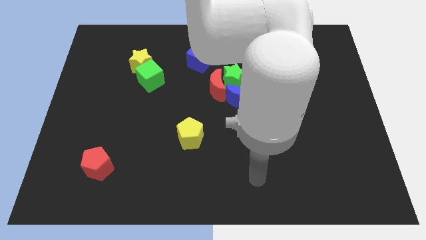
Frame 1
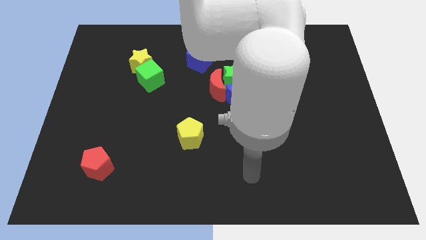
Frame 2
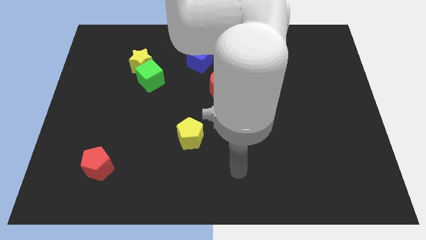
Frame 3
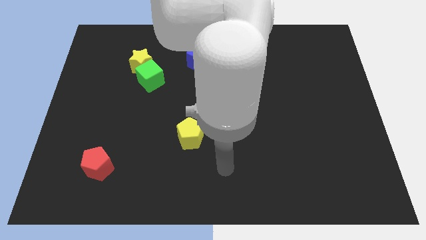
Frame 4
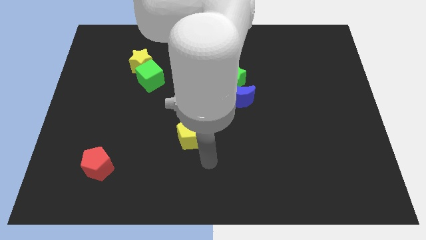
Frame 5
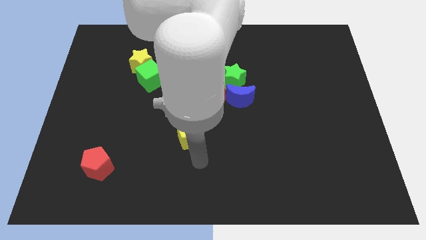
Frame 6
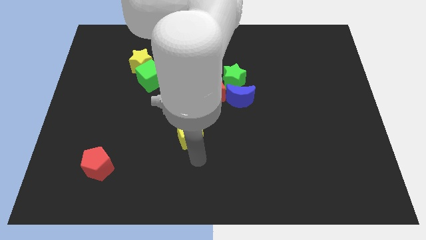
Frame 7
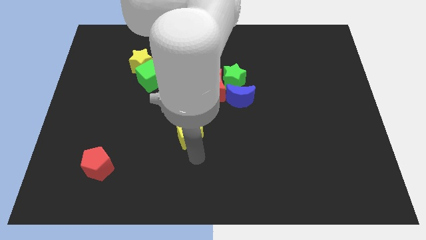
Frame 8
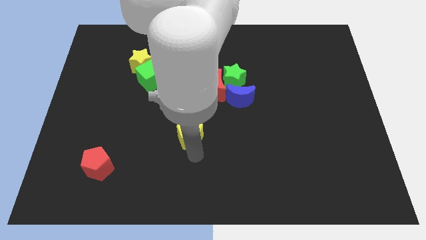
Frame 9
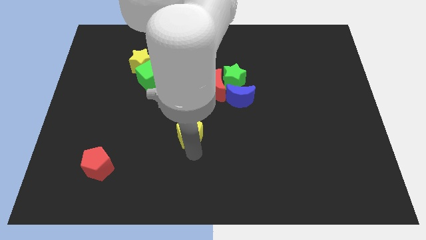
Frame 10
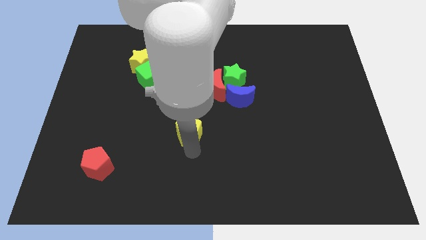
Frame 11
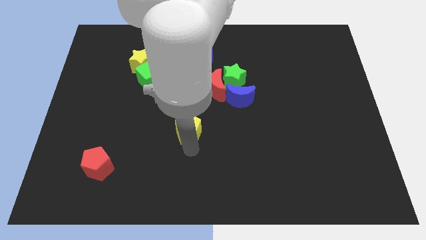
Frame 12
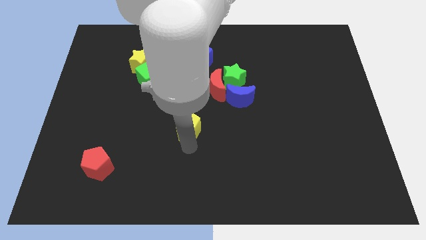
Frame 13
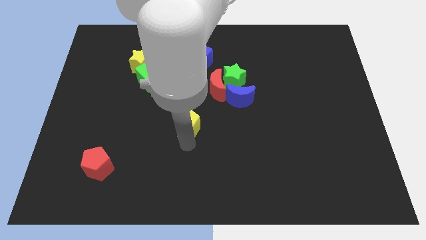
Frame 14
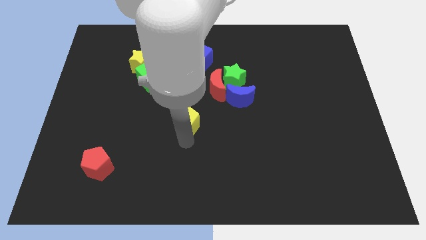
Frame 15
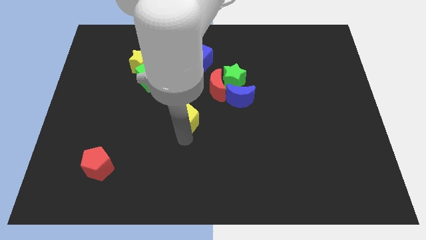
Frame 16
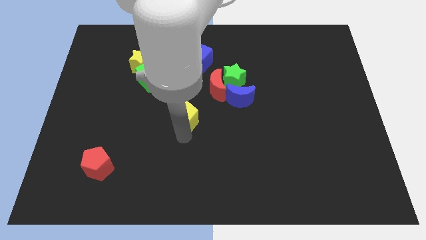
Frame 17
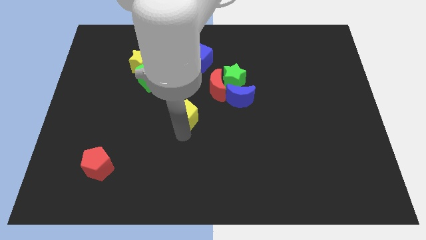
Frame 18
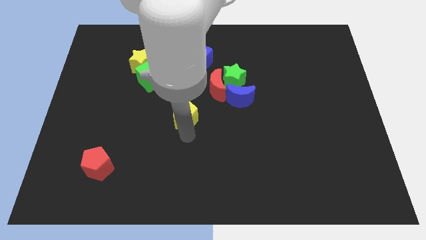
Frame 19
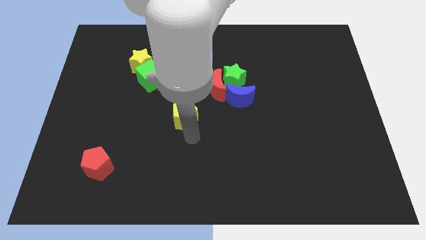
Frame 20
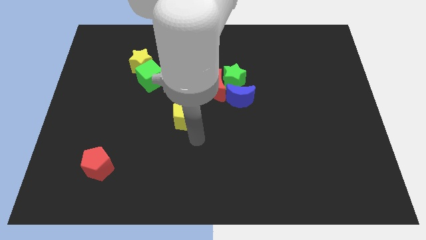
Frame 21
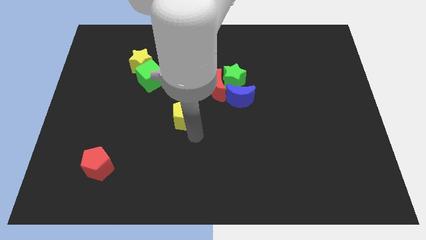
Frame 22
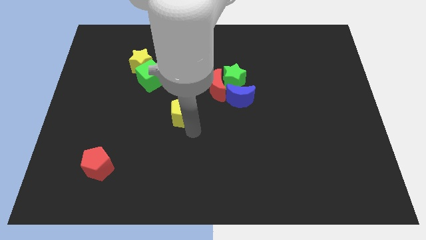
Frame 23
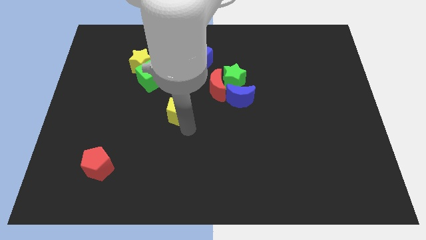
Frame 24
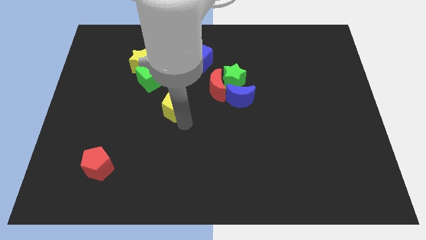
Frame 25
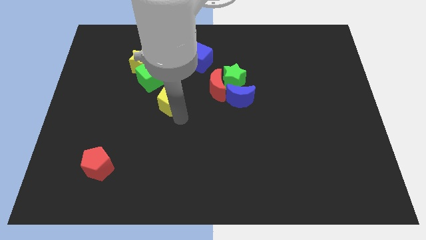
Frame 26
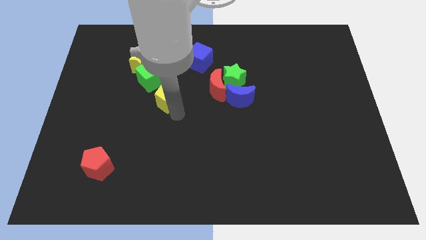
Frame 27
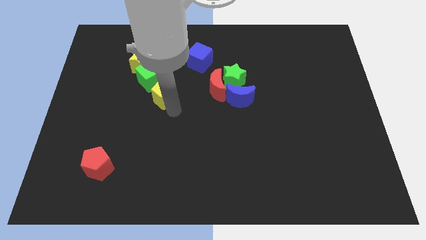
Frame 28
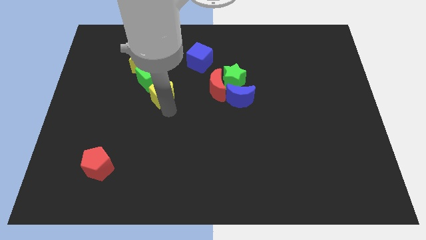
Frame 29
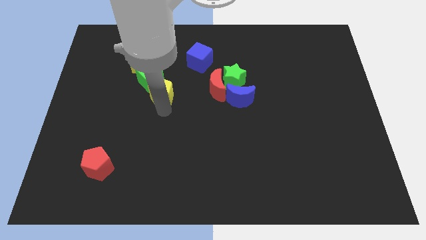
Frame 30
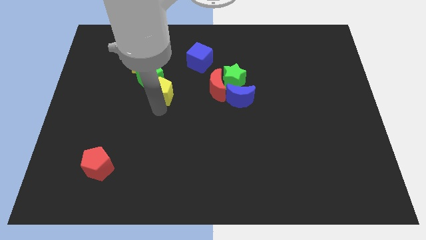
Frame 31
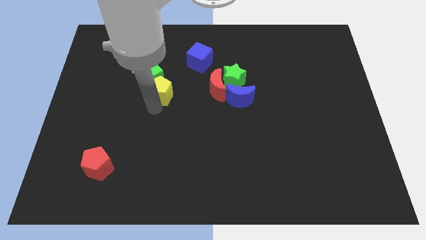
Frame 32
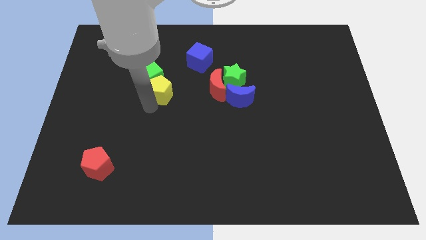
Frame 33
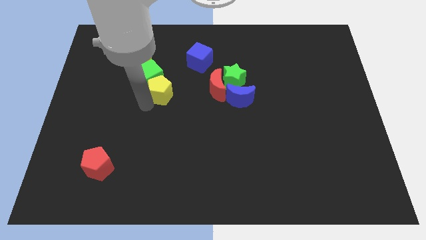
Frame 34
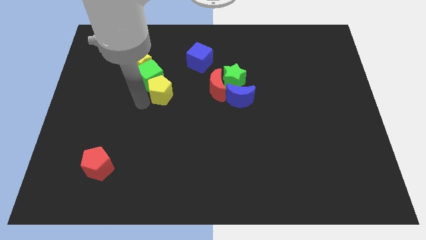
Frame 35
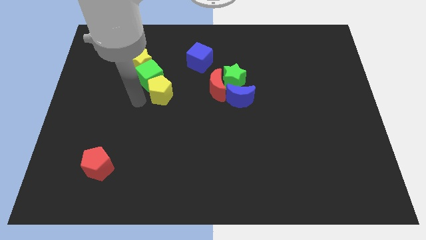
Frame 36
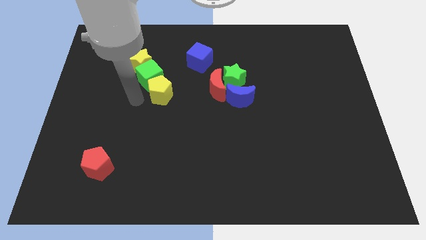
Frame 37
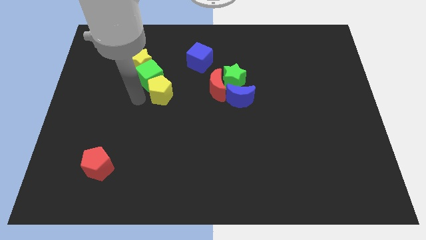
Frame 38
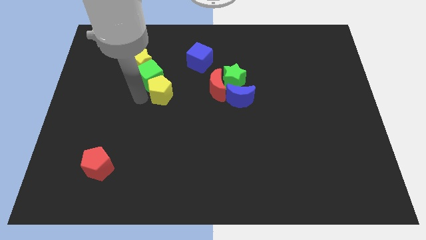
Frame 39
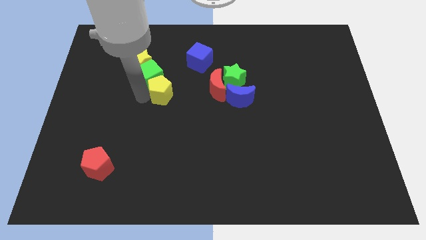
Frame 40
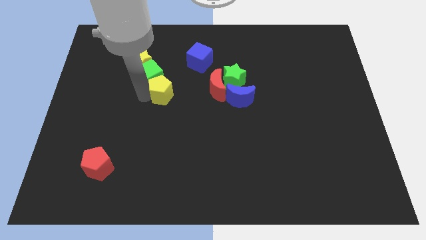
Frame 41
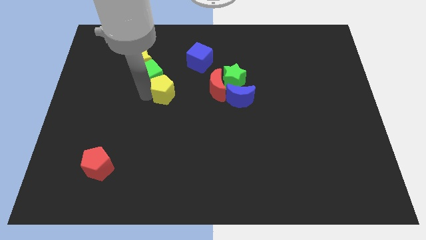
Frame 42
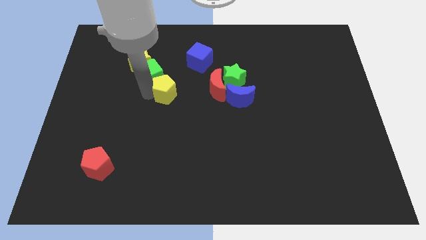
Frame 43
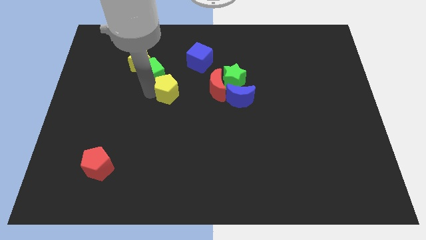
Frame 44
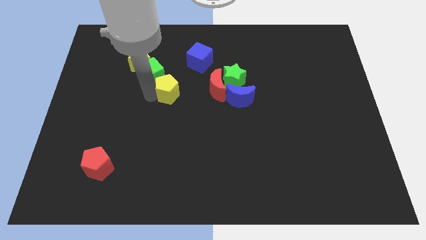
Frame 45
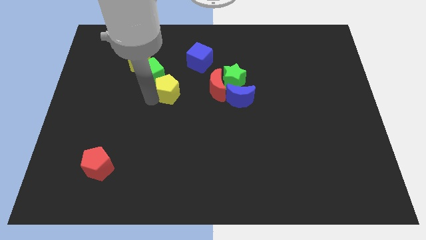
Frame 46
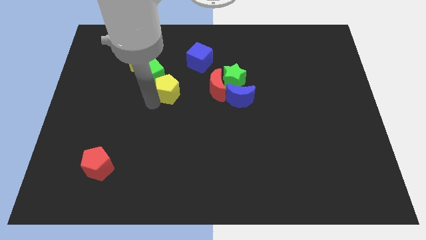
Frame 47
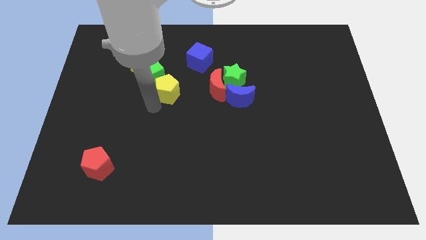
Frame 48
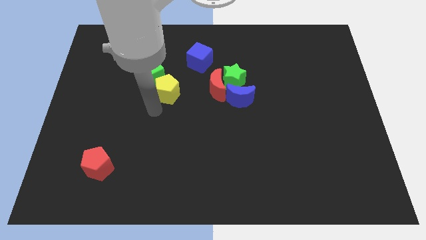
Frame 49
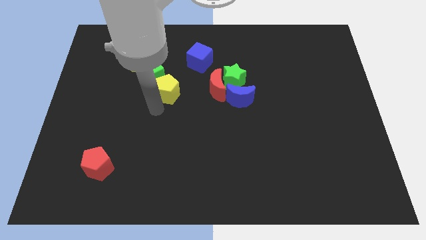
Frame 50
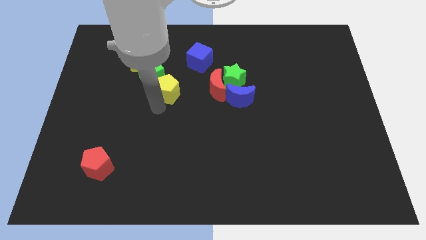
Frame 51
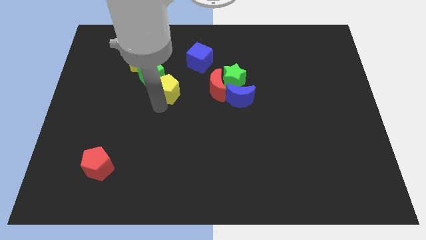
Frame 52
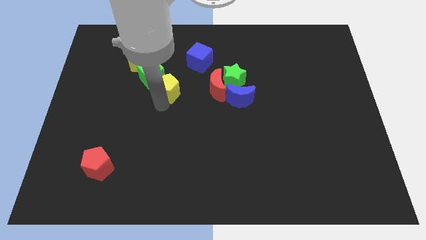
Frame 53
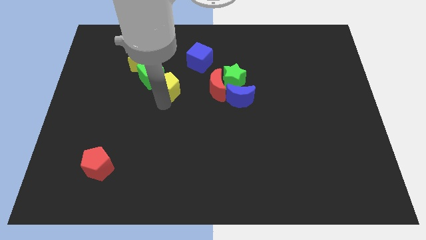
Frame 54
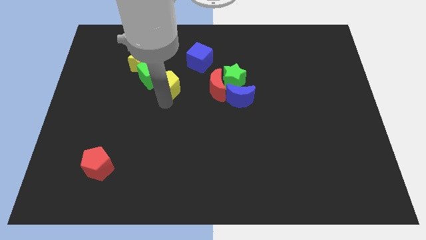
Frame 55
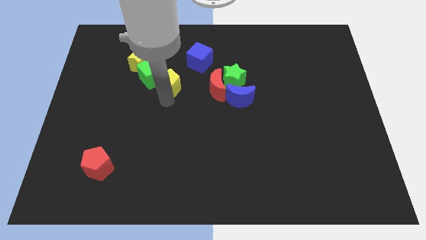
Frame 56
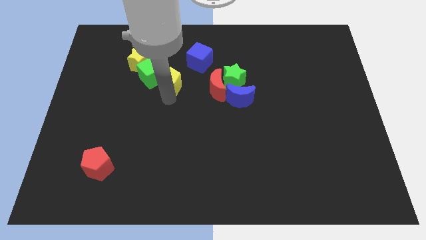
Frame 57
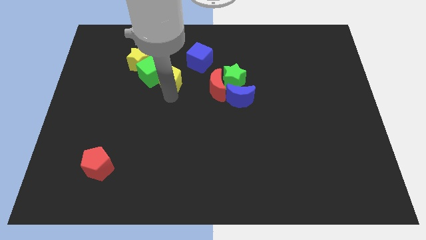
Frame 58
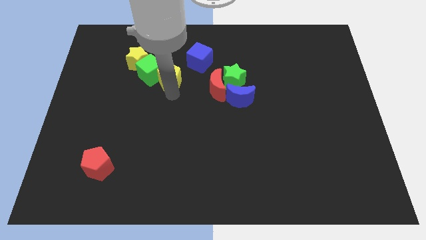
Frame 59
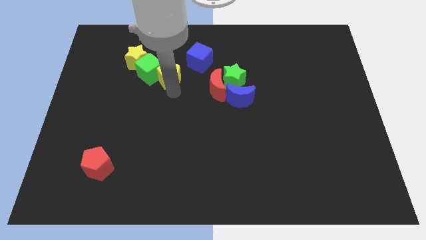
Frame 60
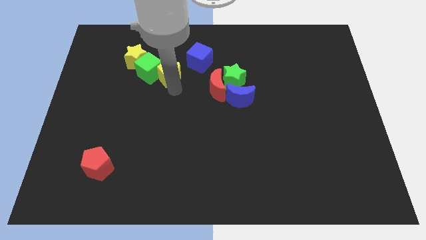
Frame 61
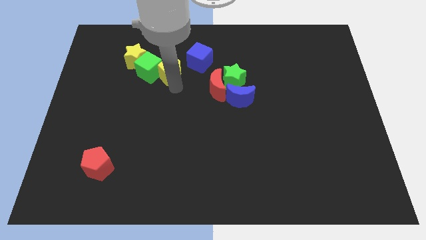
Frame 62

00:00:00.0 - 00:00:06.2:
slide the yellow pentagon to the right side of the yellow star

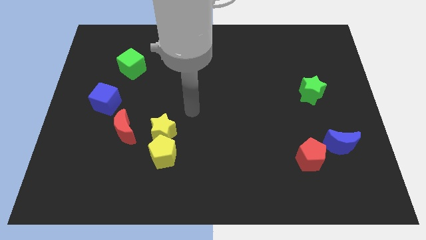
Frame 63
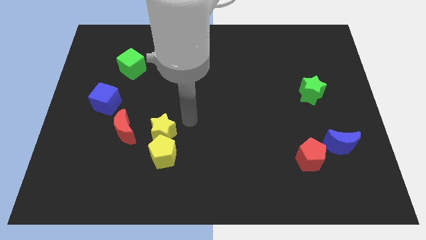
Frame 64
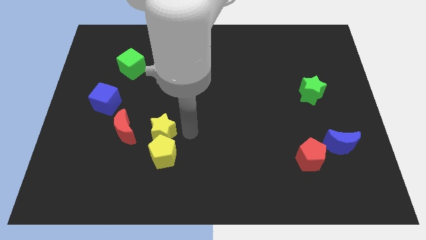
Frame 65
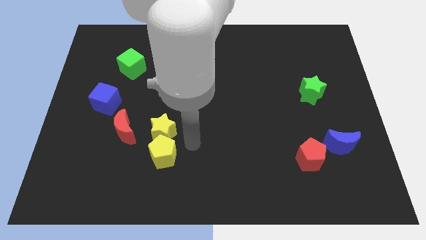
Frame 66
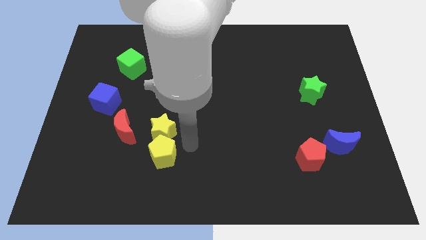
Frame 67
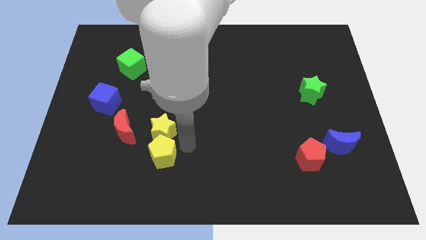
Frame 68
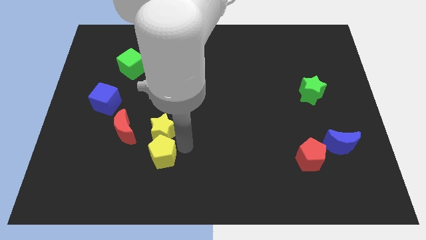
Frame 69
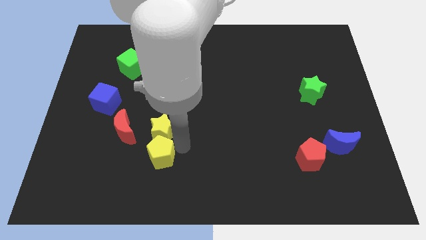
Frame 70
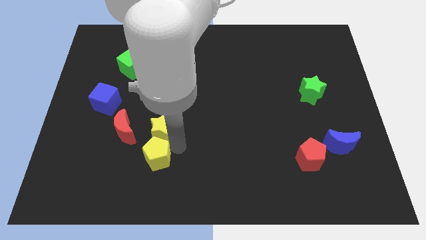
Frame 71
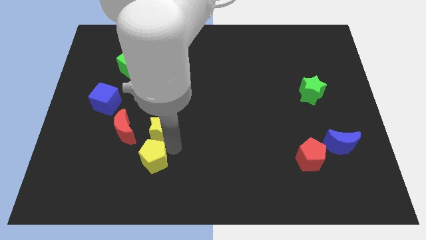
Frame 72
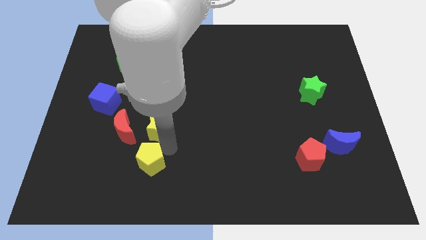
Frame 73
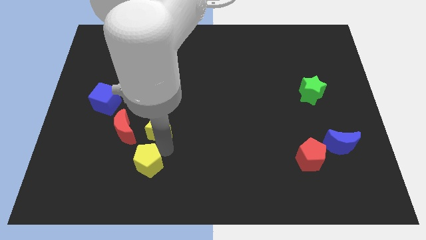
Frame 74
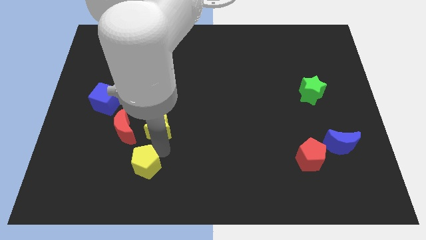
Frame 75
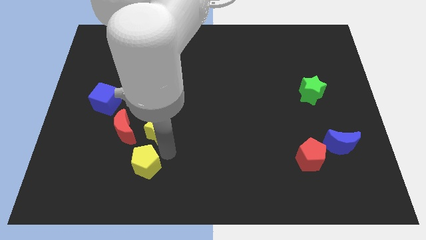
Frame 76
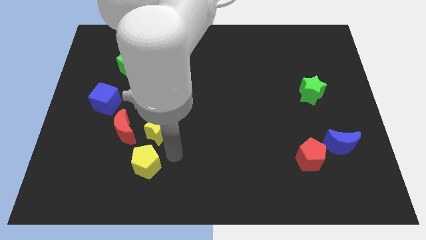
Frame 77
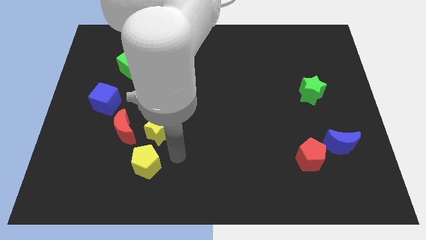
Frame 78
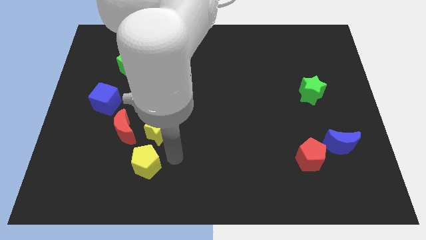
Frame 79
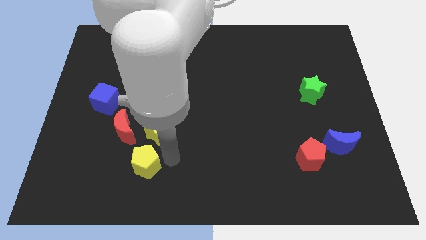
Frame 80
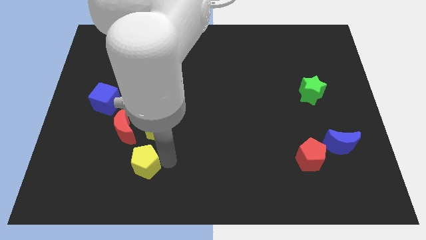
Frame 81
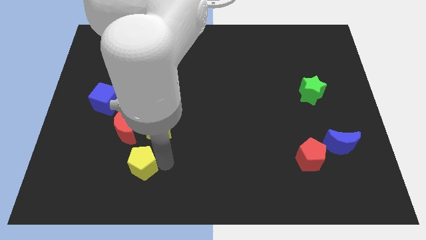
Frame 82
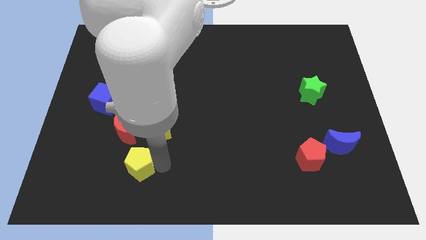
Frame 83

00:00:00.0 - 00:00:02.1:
put the yellow pentagon below the red moon
